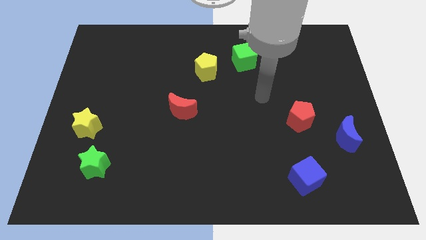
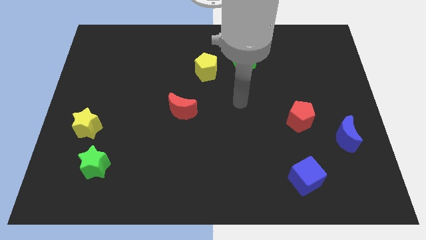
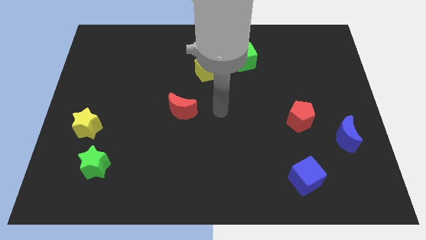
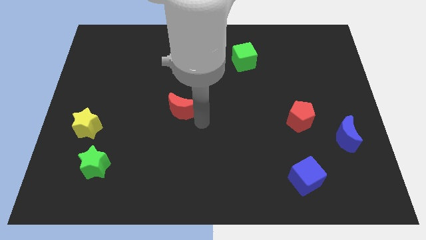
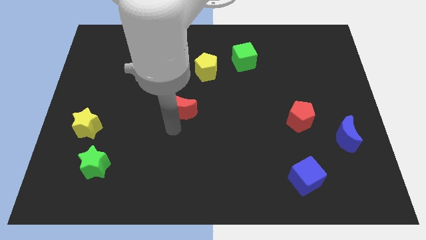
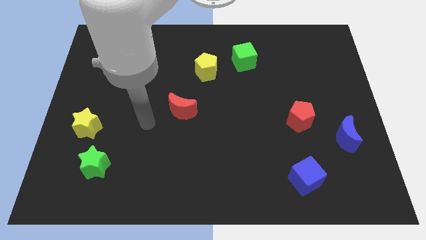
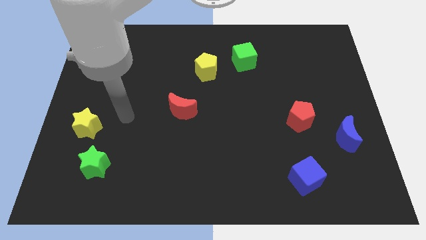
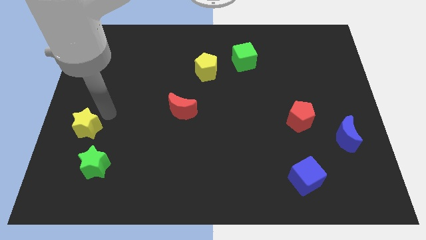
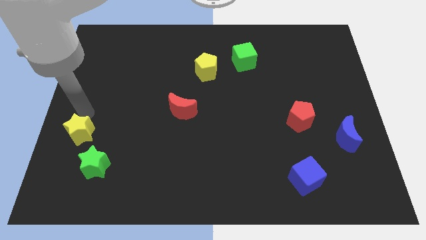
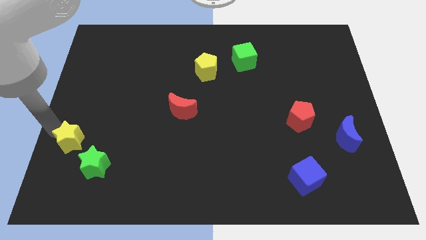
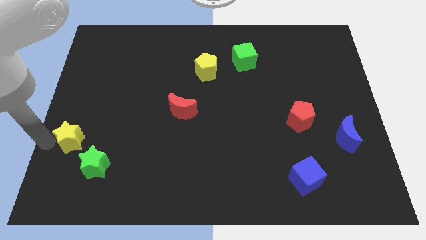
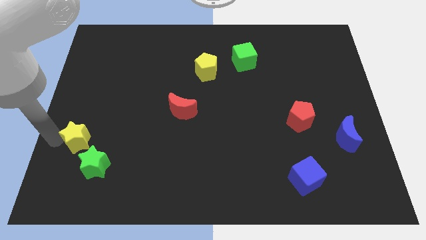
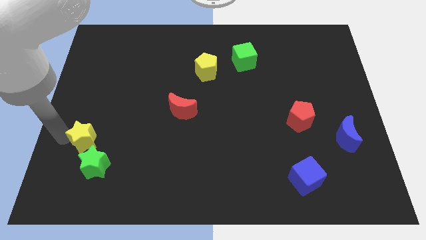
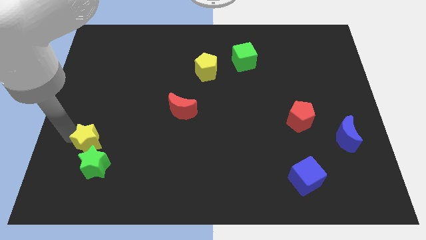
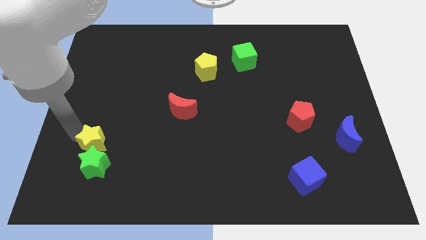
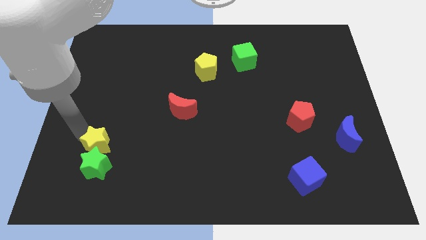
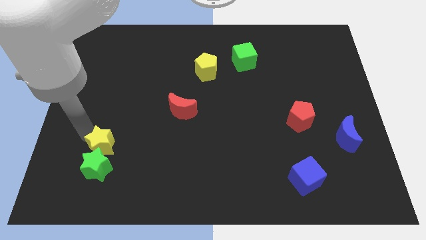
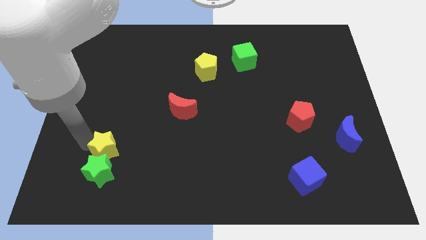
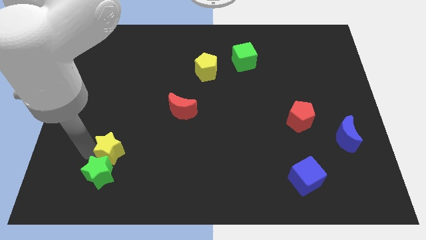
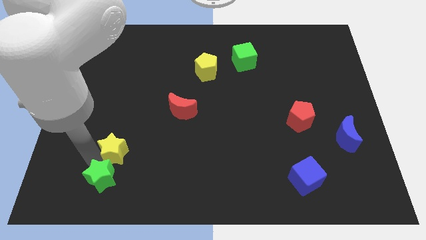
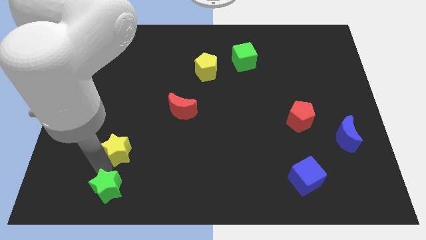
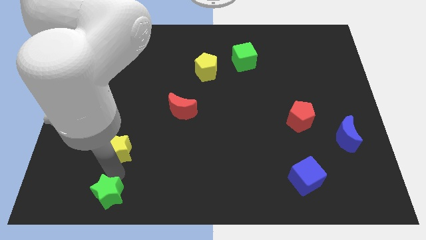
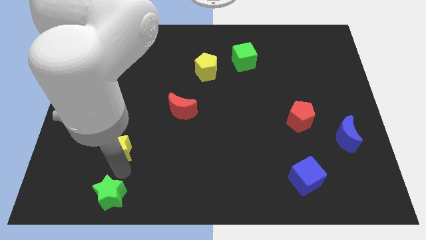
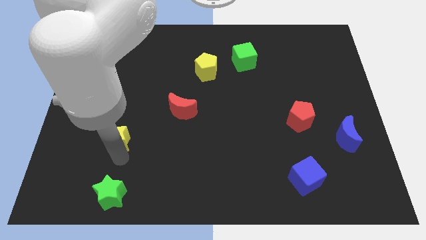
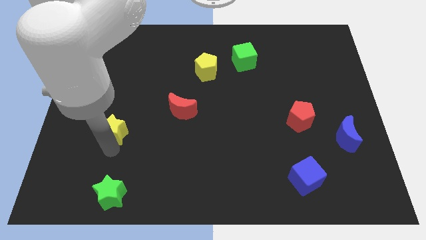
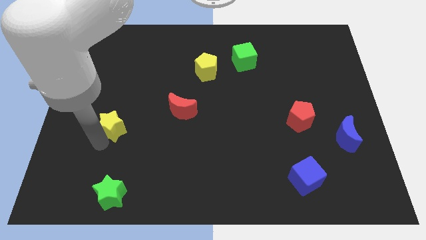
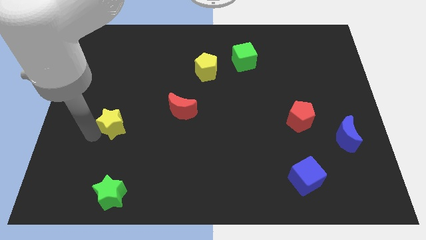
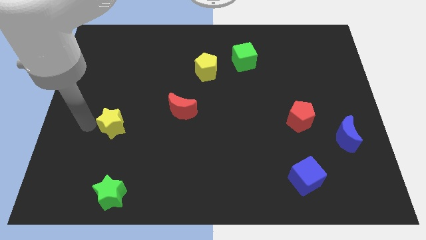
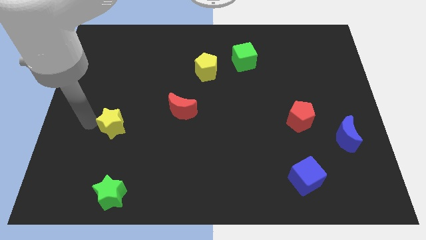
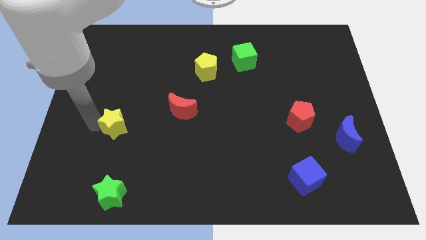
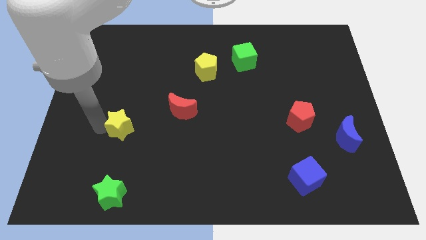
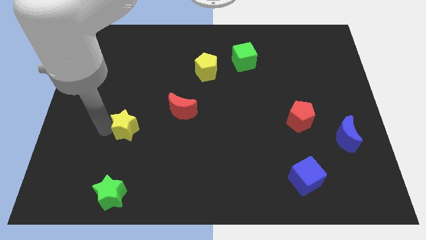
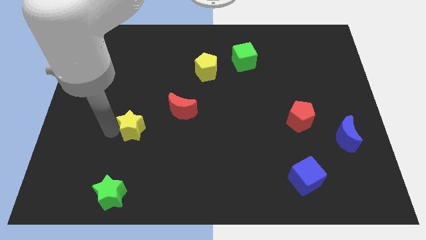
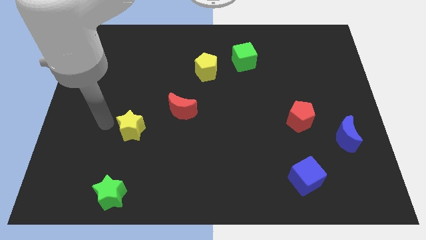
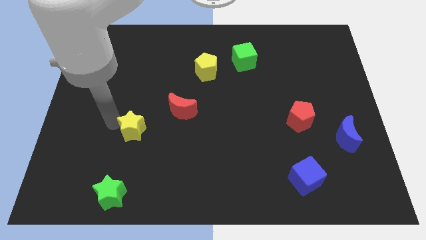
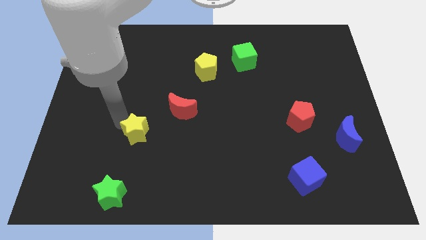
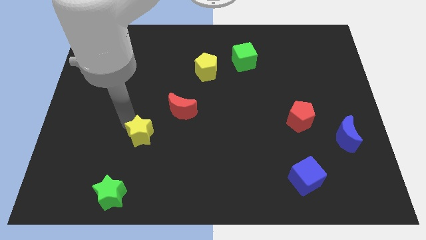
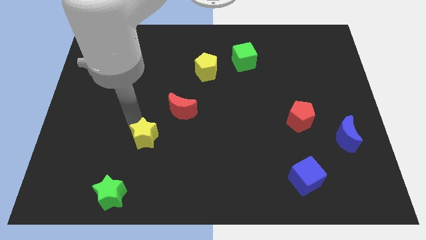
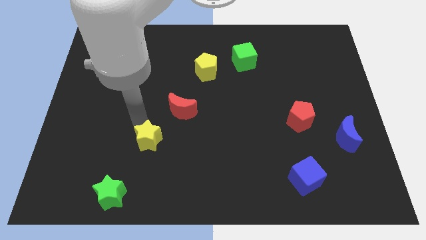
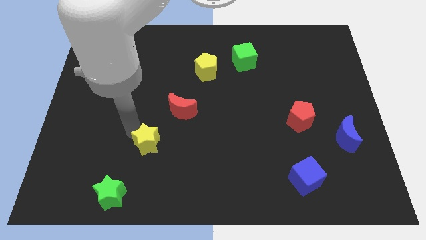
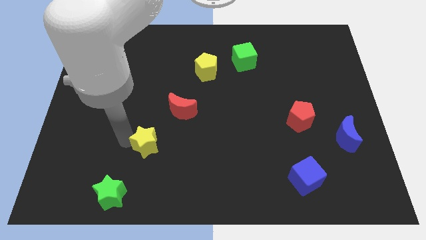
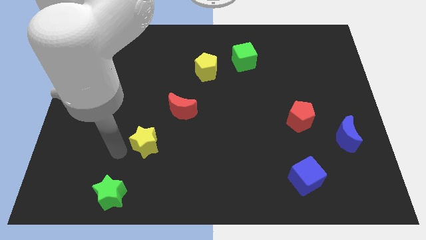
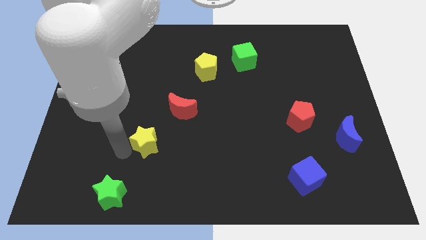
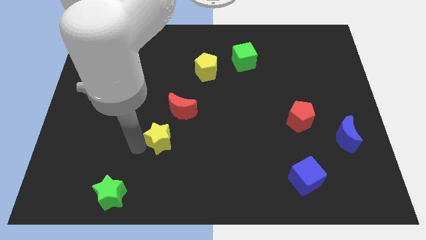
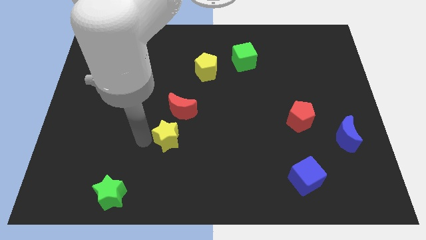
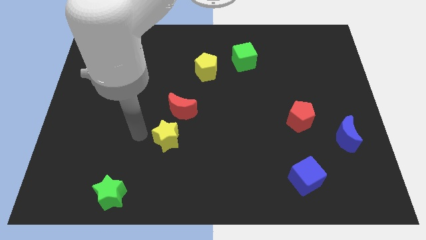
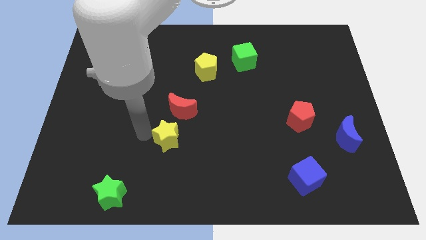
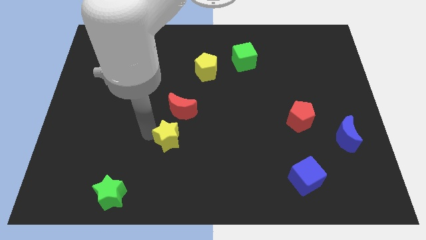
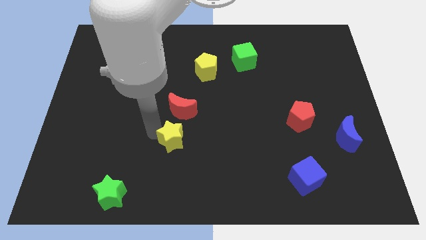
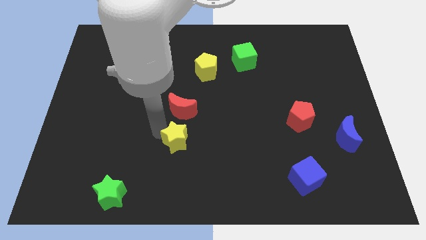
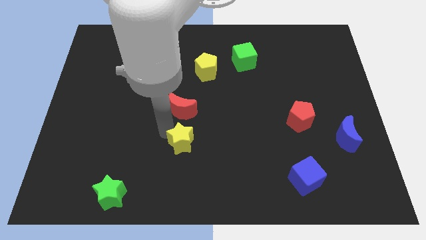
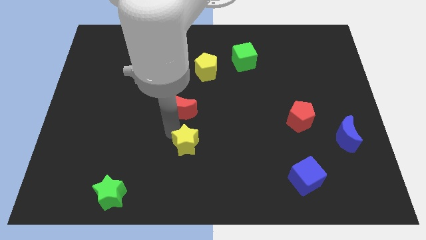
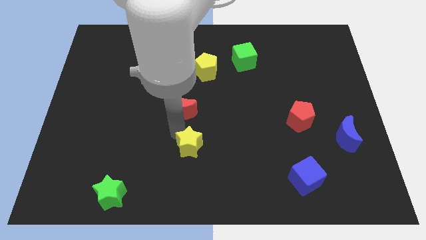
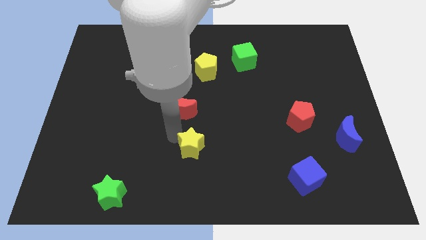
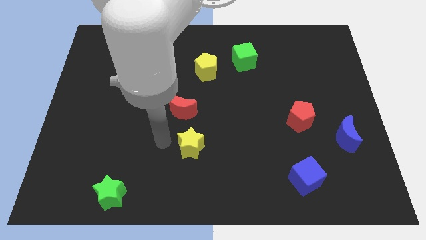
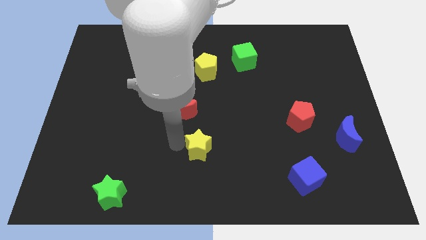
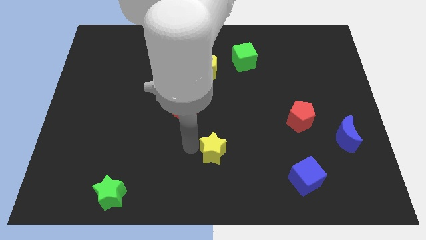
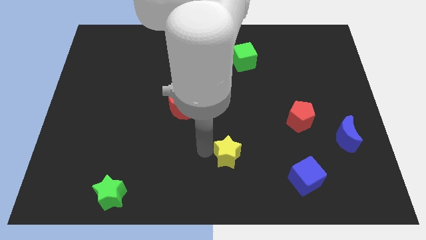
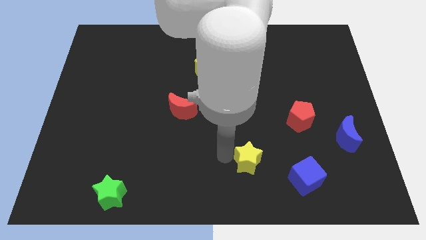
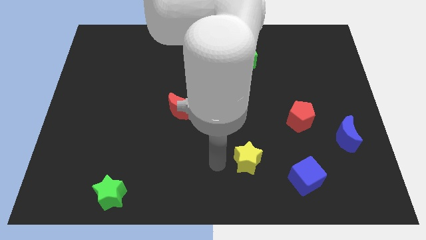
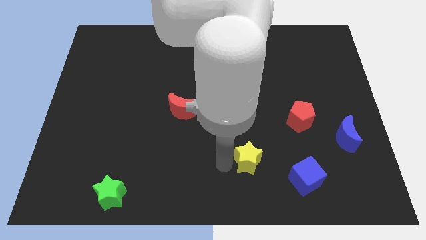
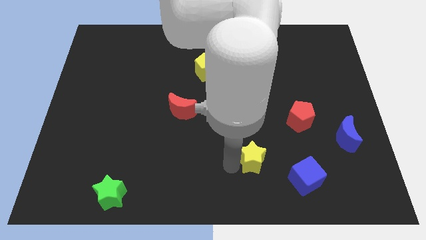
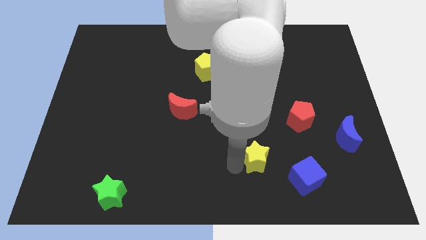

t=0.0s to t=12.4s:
slide the yellow star to the top left of the blue cube
